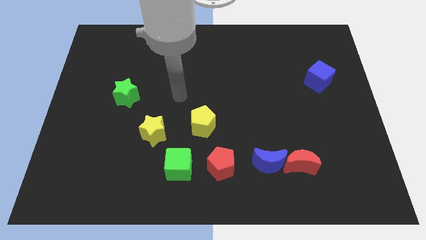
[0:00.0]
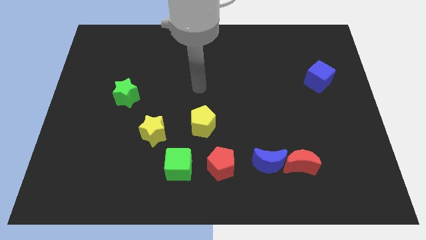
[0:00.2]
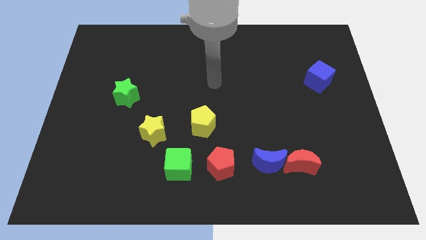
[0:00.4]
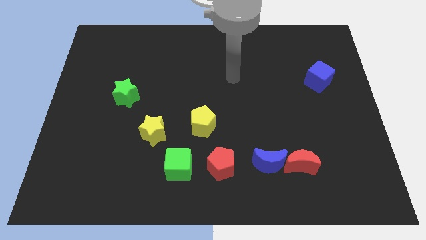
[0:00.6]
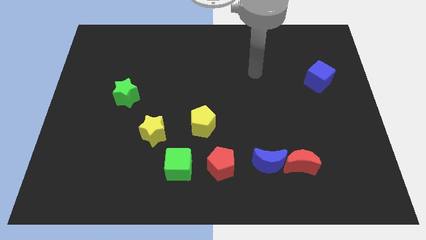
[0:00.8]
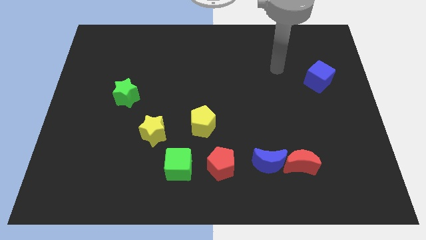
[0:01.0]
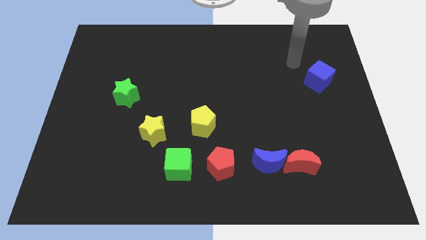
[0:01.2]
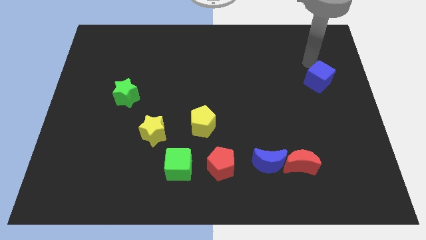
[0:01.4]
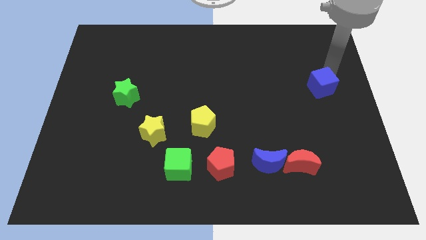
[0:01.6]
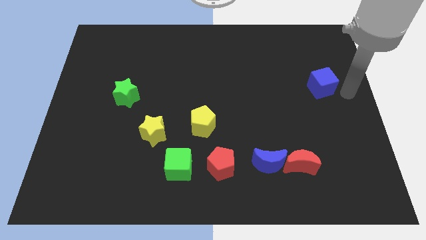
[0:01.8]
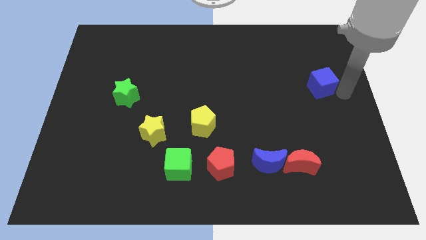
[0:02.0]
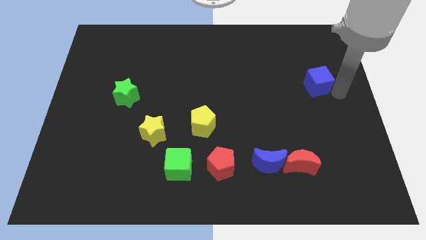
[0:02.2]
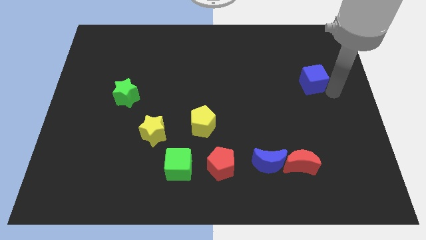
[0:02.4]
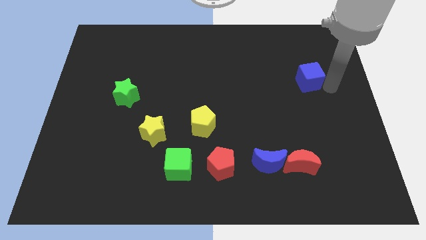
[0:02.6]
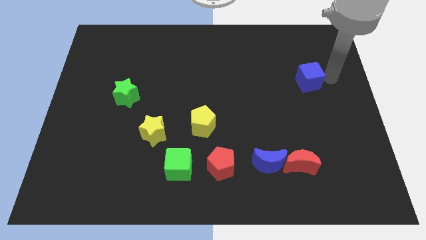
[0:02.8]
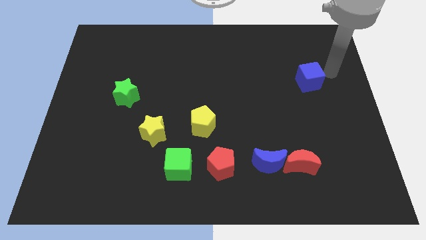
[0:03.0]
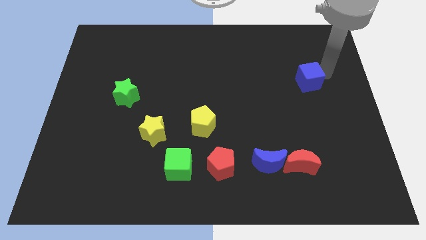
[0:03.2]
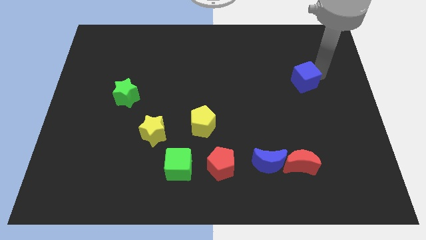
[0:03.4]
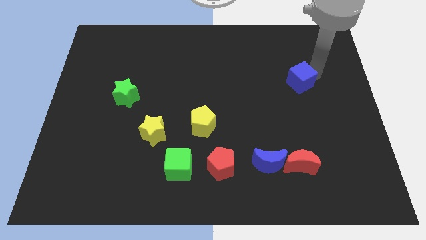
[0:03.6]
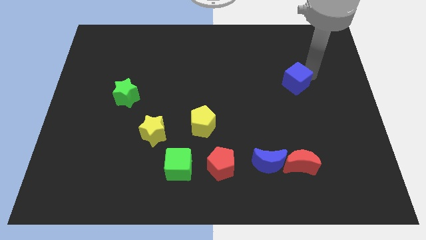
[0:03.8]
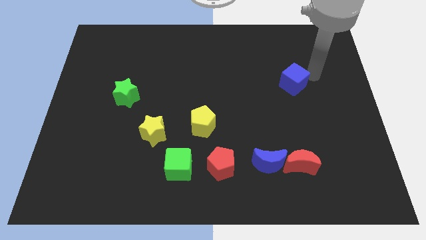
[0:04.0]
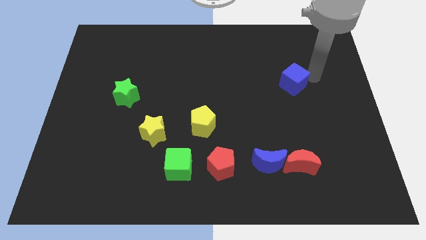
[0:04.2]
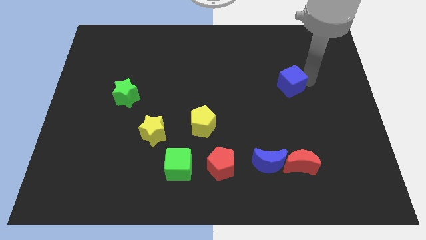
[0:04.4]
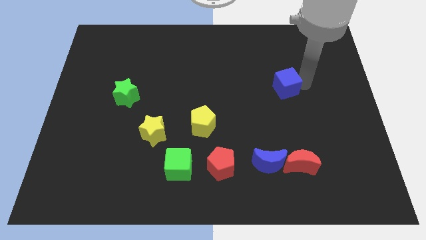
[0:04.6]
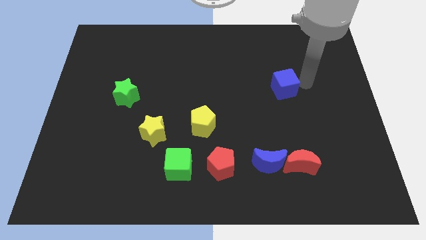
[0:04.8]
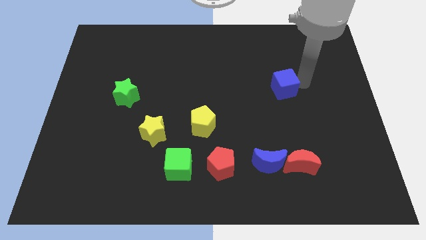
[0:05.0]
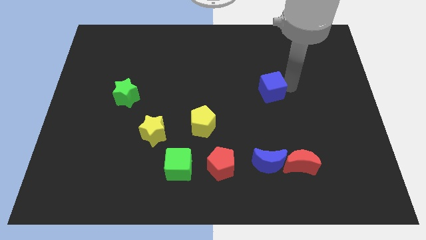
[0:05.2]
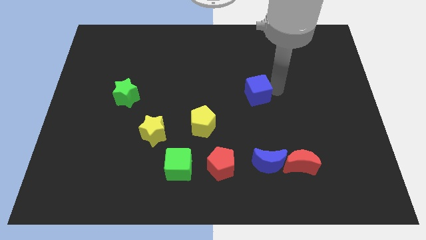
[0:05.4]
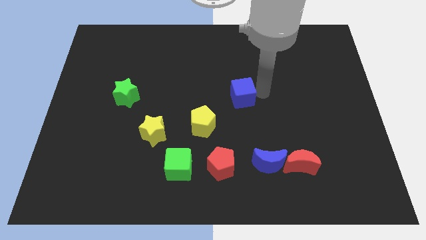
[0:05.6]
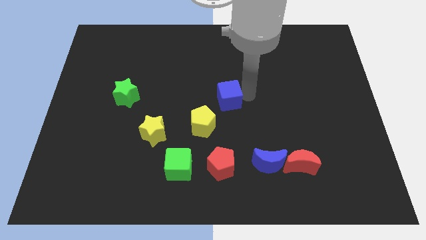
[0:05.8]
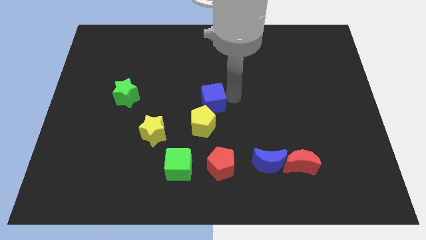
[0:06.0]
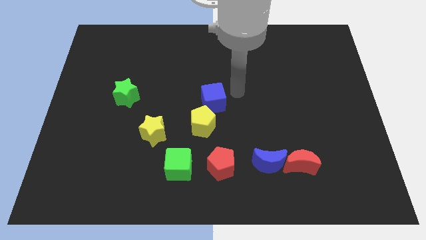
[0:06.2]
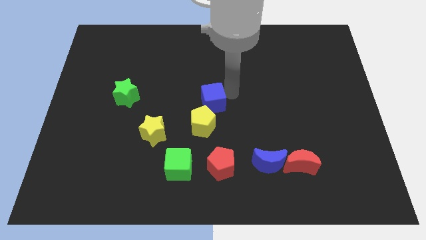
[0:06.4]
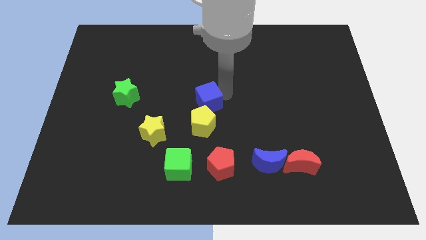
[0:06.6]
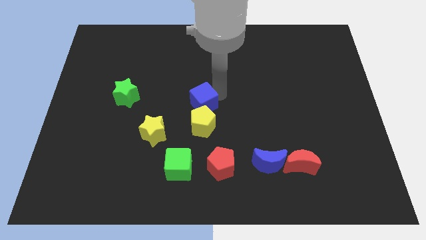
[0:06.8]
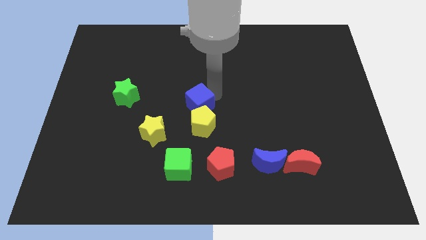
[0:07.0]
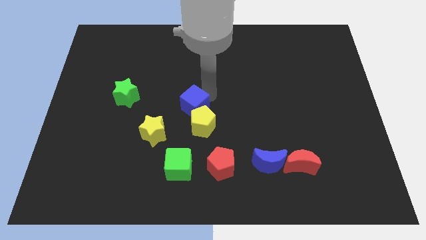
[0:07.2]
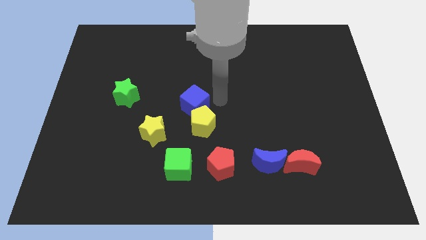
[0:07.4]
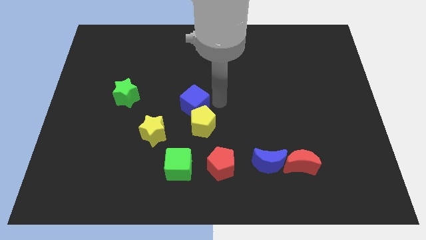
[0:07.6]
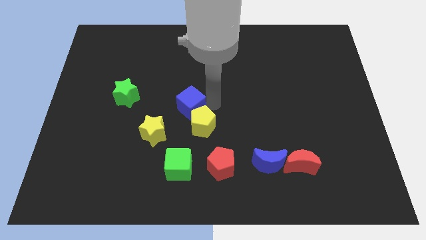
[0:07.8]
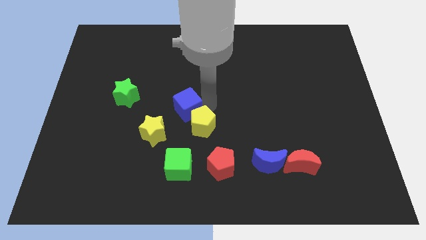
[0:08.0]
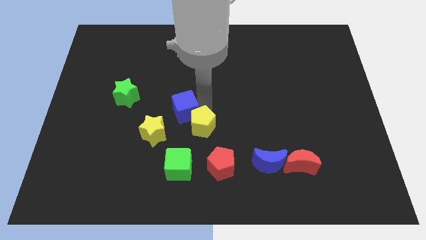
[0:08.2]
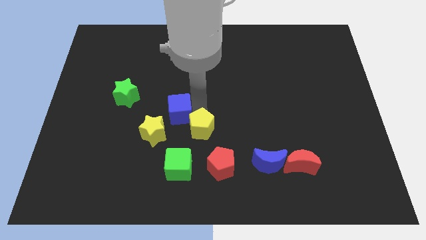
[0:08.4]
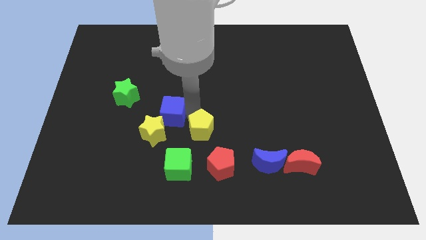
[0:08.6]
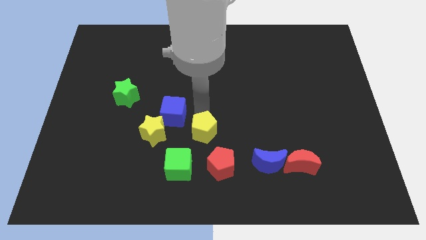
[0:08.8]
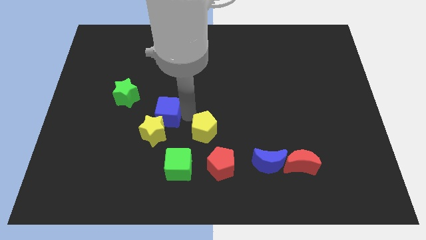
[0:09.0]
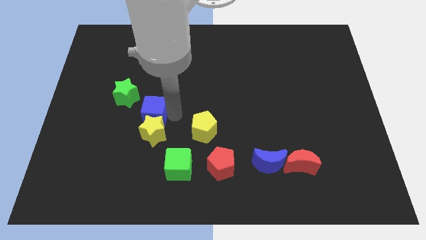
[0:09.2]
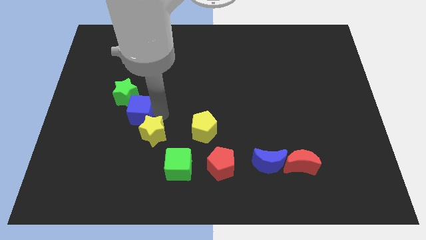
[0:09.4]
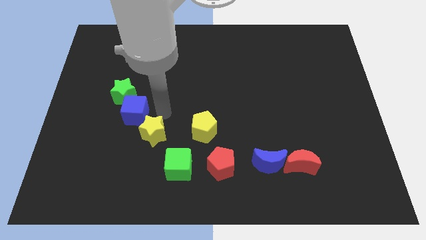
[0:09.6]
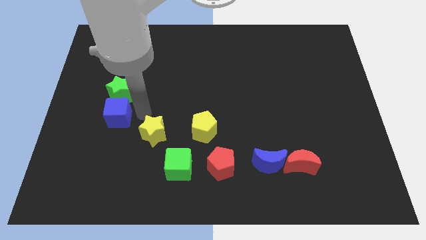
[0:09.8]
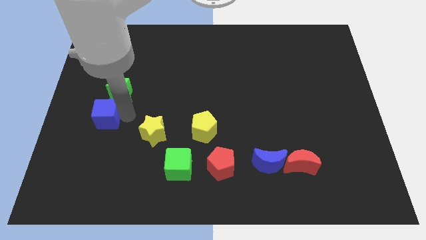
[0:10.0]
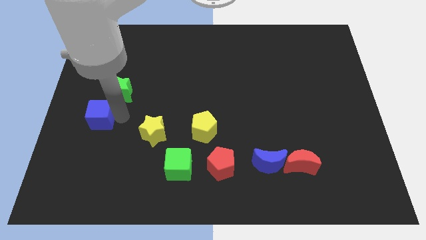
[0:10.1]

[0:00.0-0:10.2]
put the blue cube to the center left

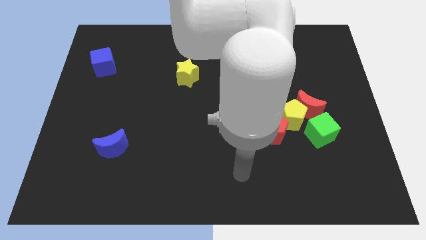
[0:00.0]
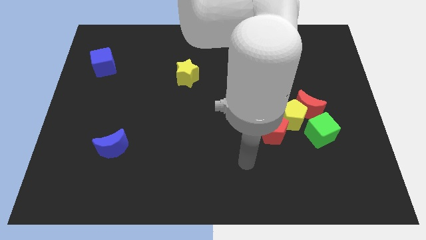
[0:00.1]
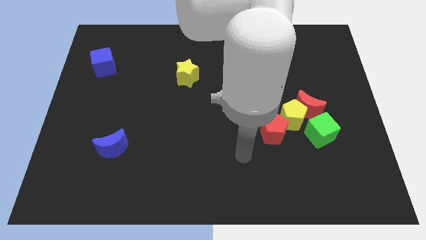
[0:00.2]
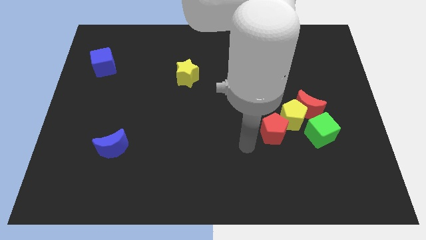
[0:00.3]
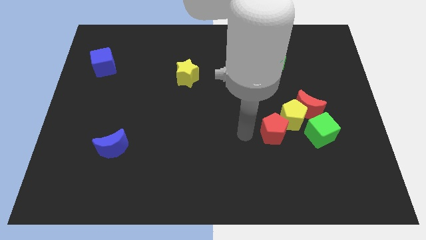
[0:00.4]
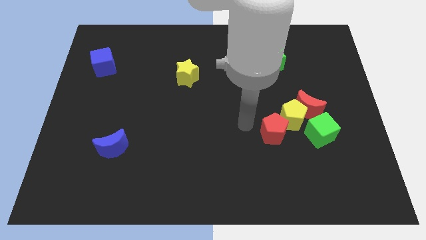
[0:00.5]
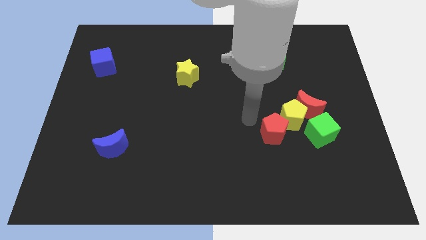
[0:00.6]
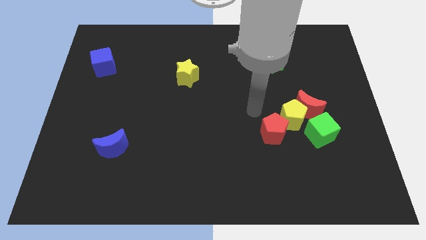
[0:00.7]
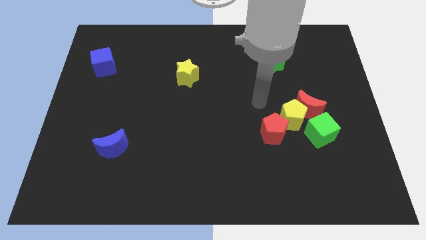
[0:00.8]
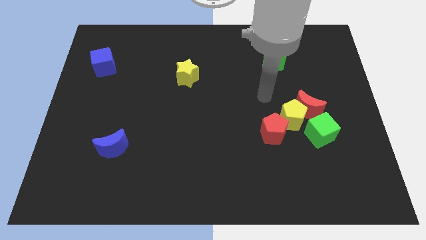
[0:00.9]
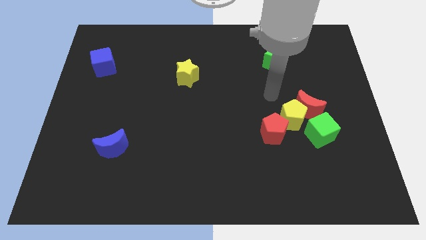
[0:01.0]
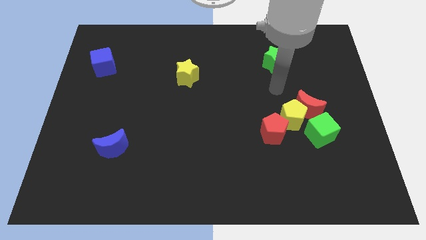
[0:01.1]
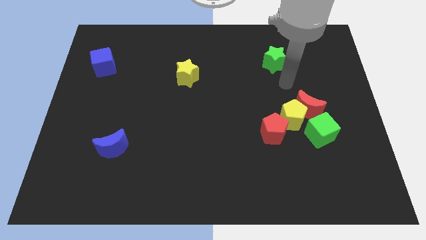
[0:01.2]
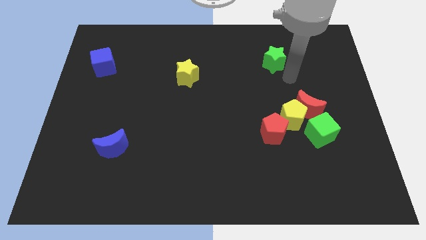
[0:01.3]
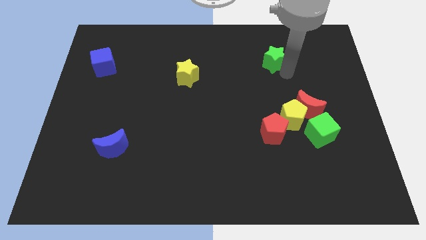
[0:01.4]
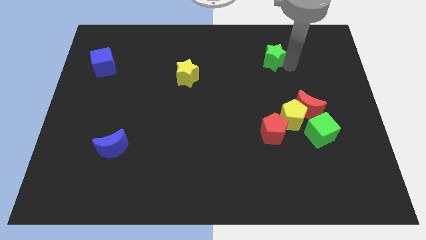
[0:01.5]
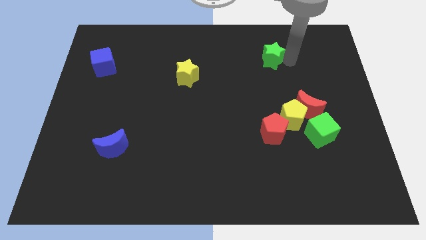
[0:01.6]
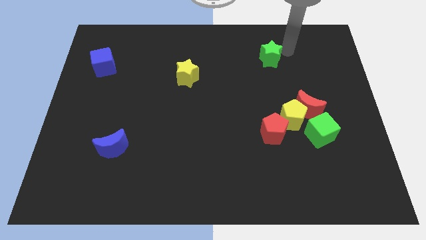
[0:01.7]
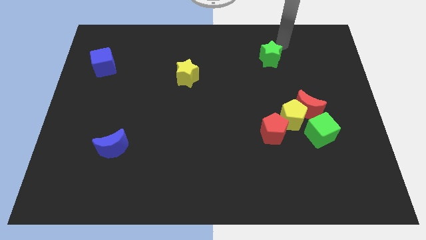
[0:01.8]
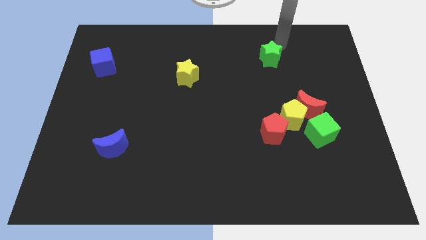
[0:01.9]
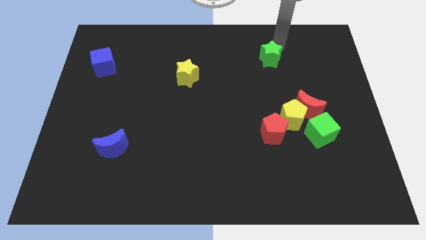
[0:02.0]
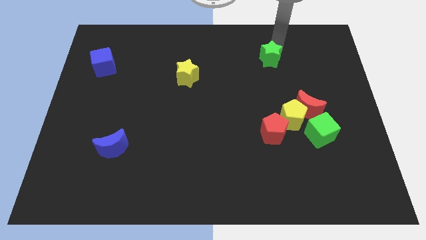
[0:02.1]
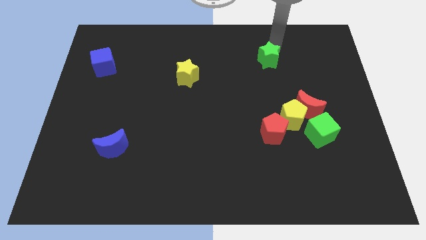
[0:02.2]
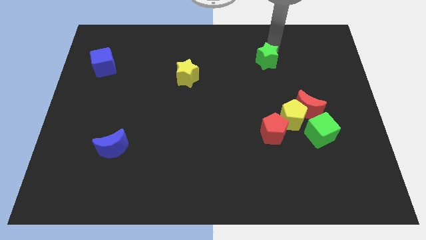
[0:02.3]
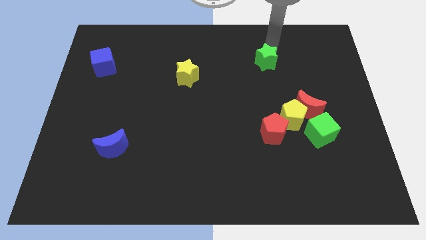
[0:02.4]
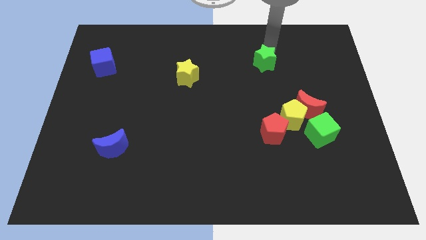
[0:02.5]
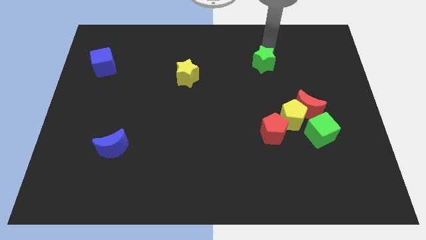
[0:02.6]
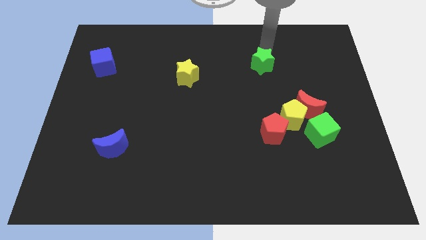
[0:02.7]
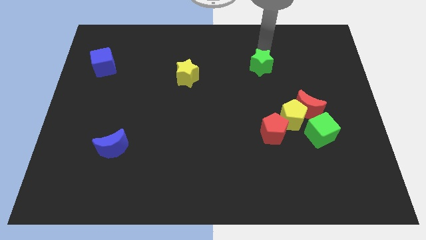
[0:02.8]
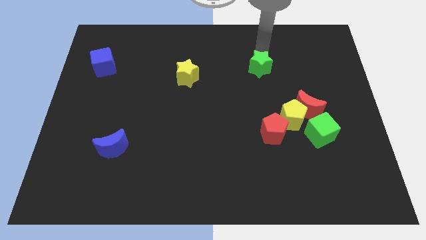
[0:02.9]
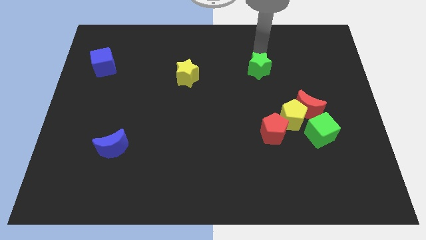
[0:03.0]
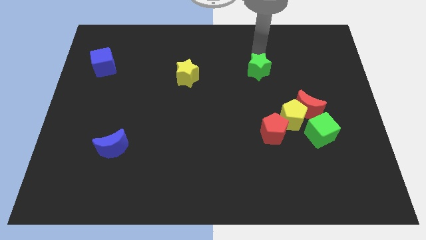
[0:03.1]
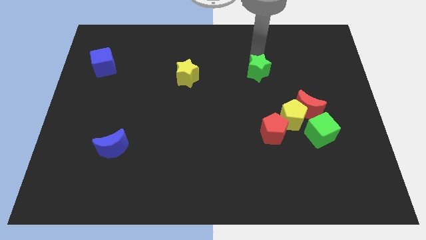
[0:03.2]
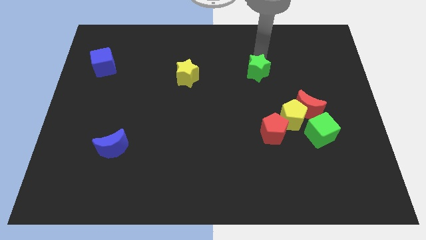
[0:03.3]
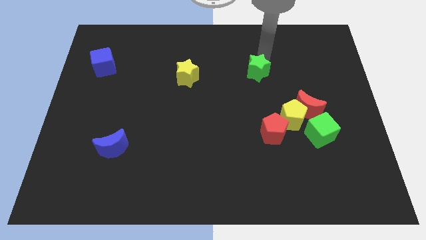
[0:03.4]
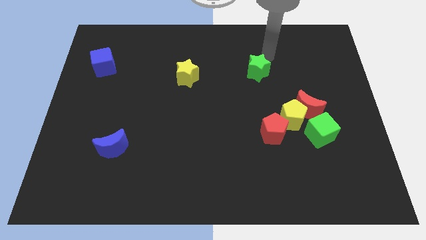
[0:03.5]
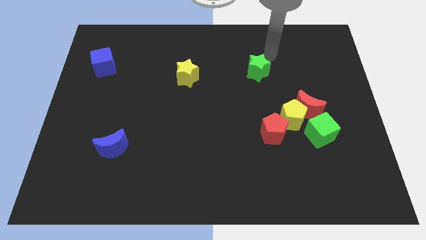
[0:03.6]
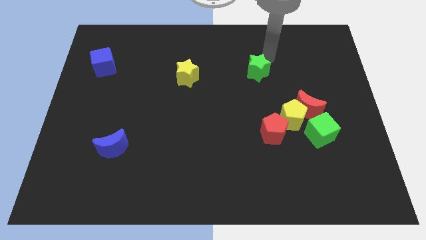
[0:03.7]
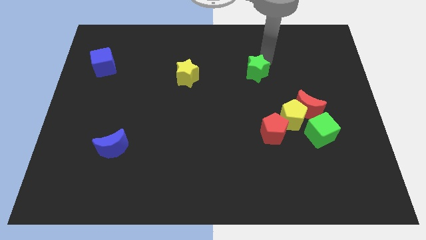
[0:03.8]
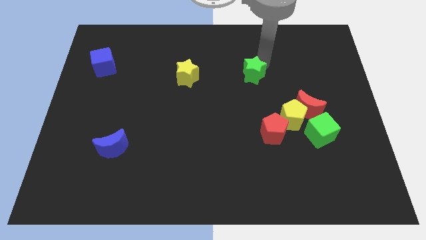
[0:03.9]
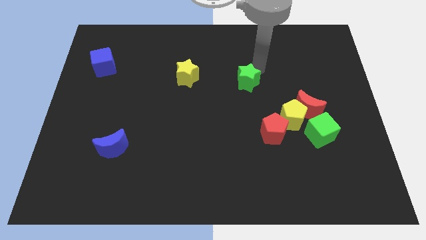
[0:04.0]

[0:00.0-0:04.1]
move the green star to the center
